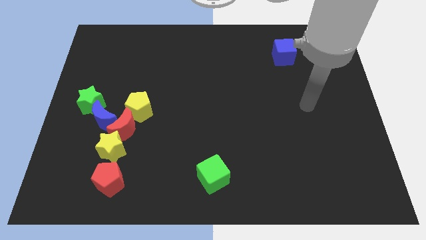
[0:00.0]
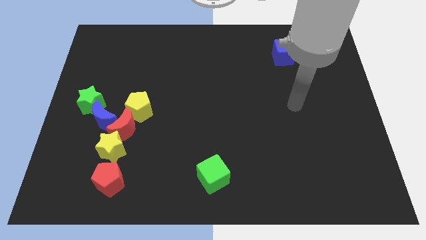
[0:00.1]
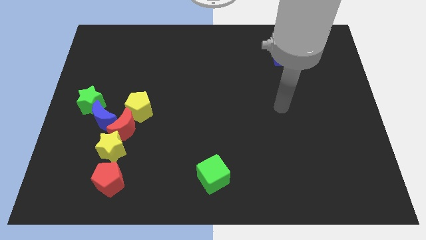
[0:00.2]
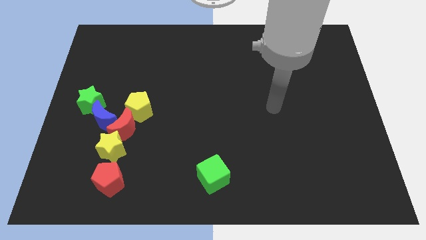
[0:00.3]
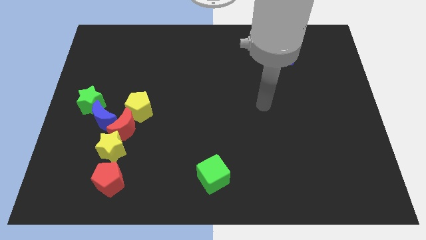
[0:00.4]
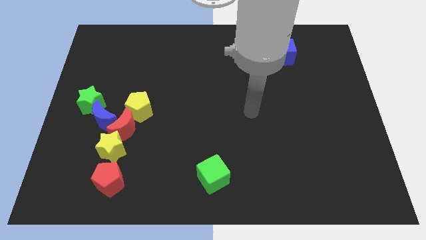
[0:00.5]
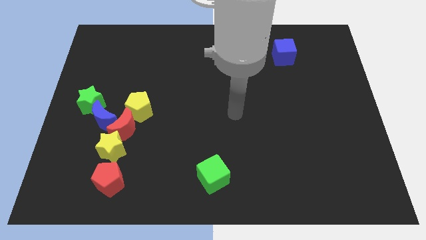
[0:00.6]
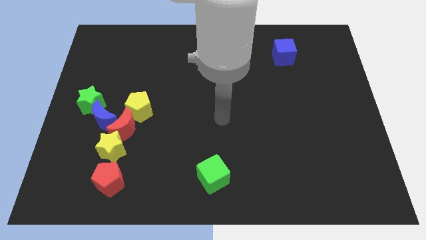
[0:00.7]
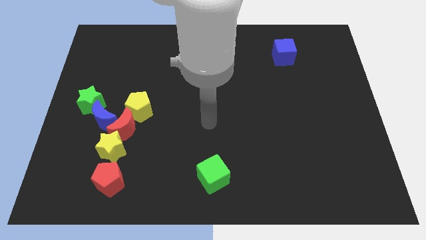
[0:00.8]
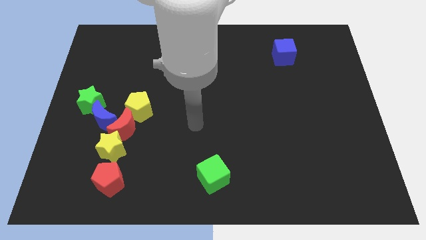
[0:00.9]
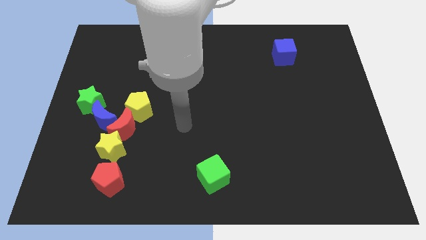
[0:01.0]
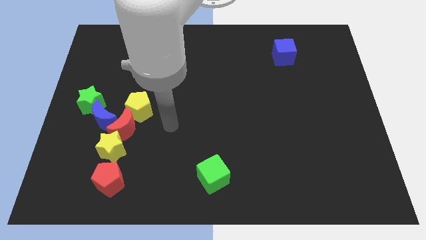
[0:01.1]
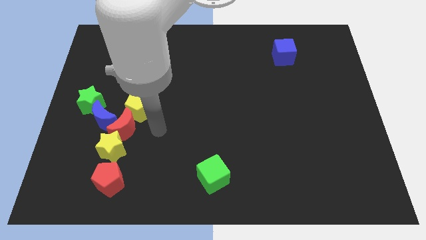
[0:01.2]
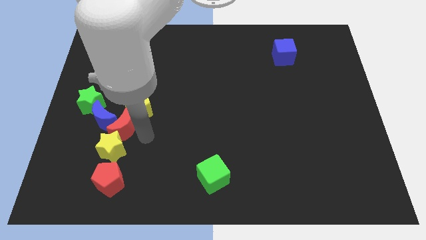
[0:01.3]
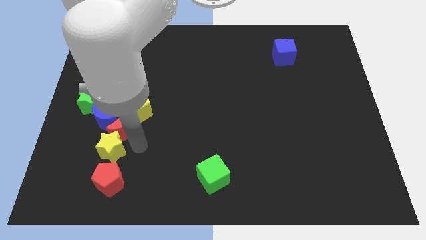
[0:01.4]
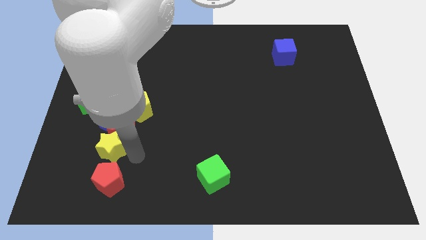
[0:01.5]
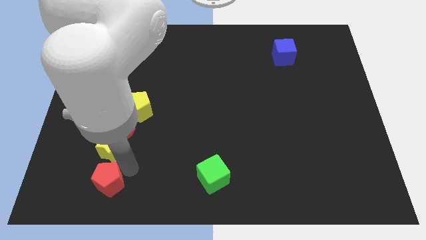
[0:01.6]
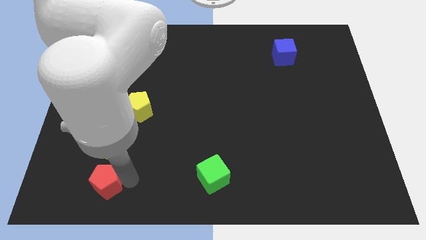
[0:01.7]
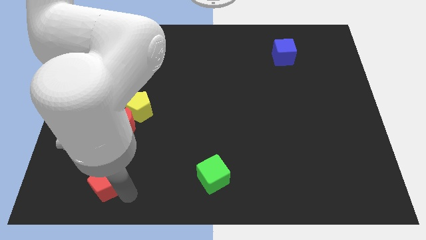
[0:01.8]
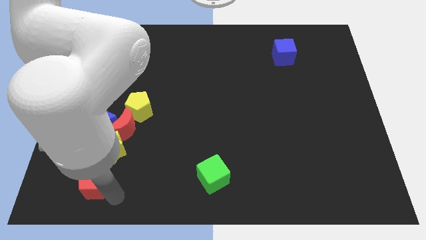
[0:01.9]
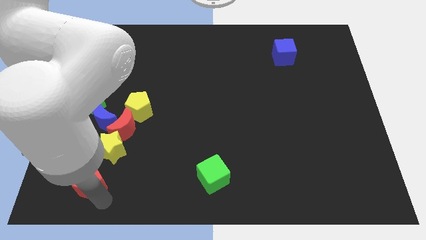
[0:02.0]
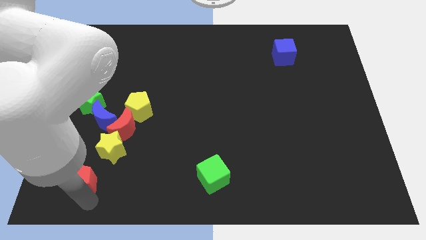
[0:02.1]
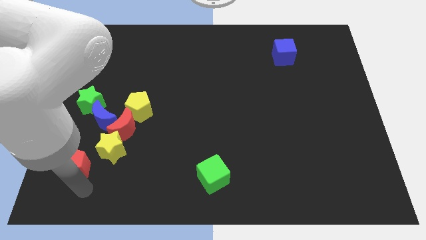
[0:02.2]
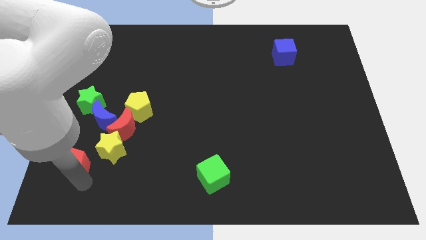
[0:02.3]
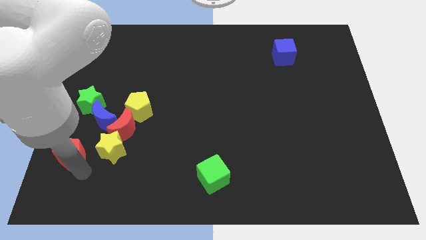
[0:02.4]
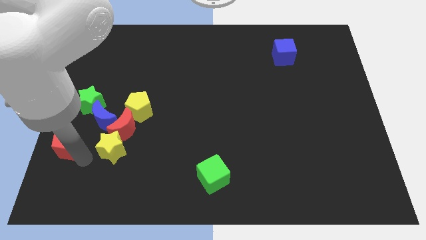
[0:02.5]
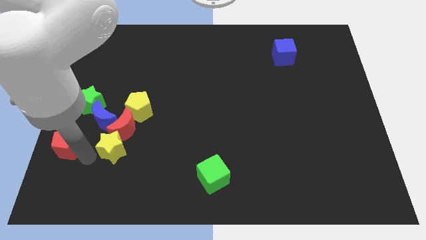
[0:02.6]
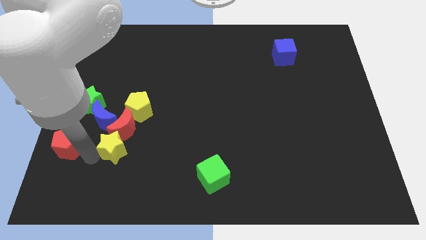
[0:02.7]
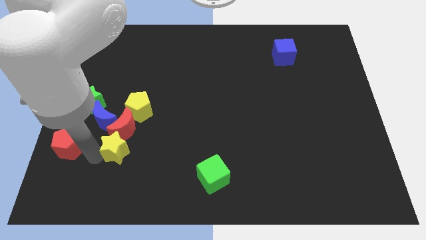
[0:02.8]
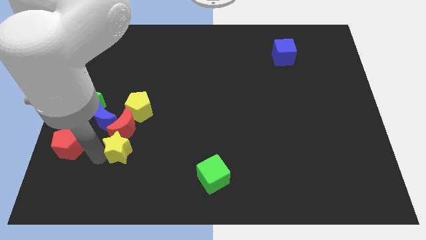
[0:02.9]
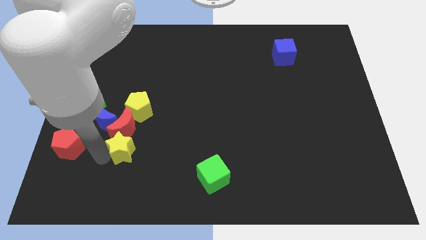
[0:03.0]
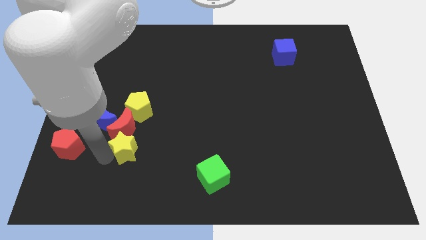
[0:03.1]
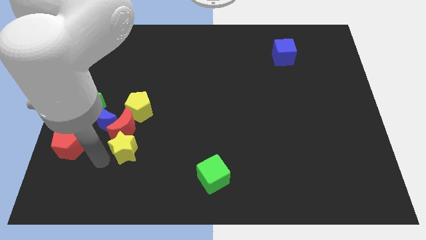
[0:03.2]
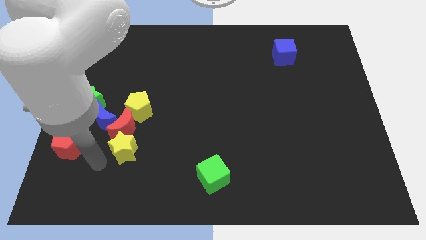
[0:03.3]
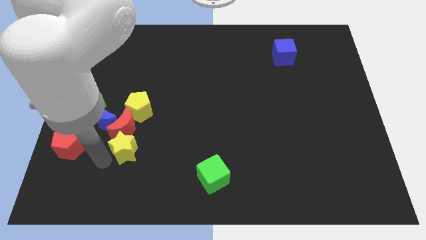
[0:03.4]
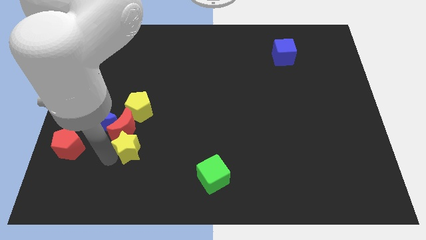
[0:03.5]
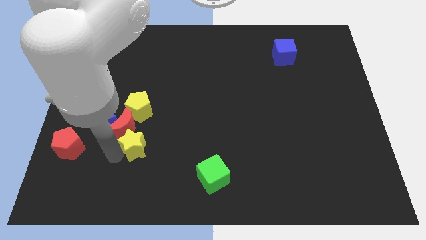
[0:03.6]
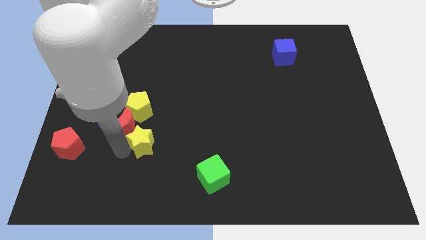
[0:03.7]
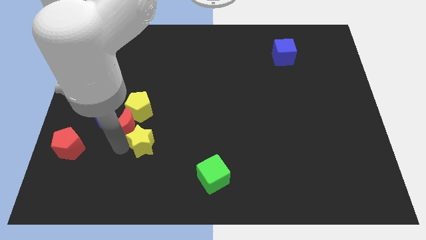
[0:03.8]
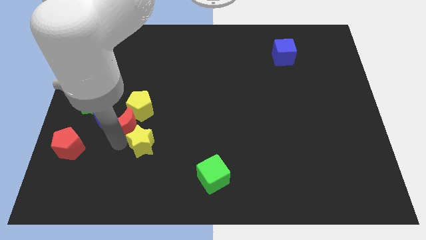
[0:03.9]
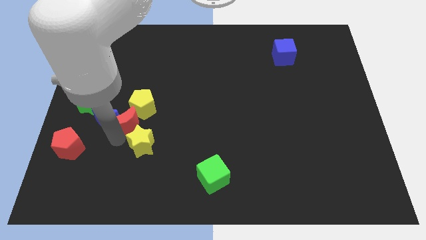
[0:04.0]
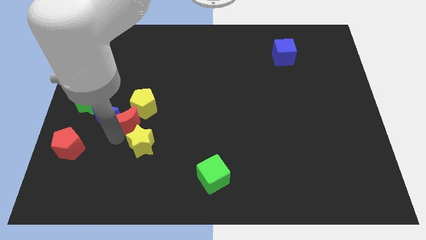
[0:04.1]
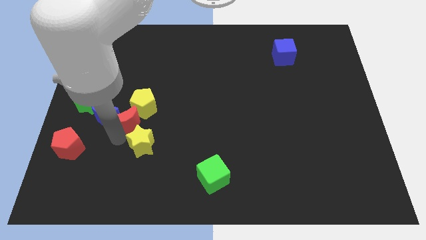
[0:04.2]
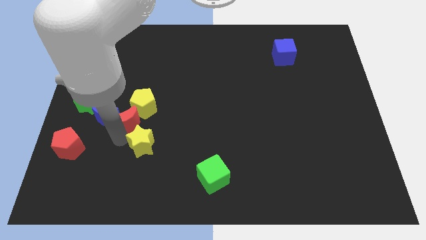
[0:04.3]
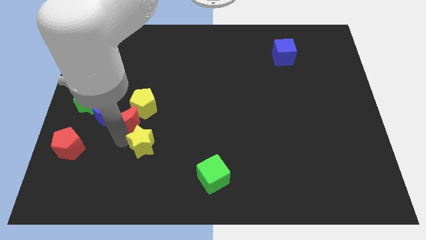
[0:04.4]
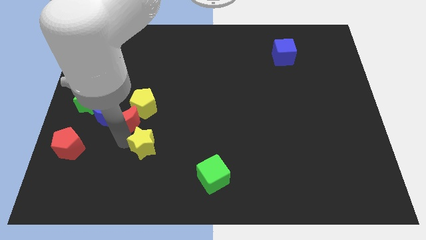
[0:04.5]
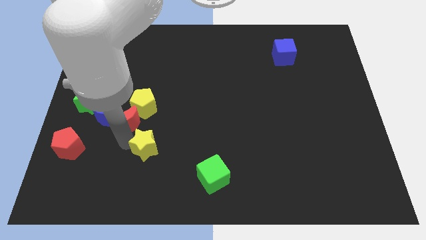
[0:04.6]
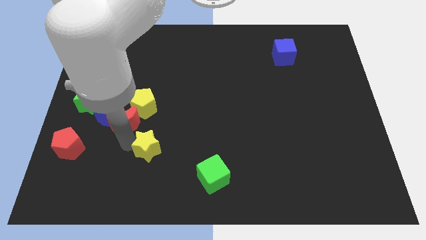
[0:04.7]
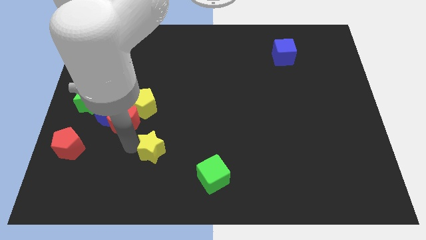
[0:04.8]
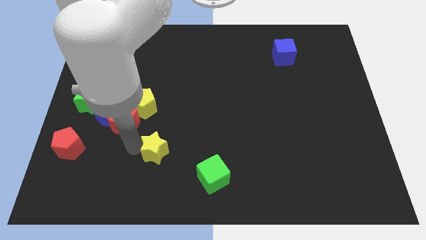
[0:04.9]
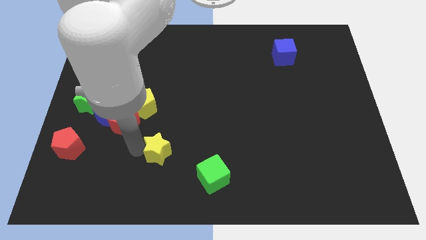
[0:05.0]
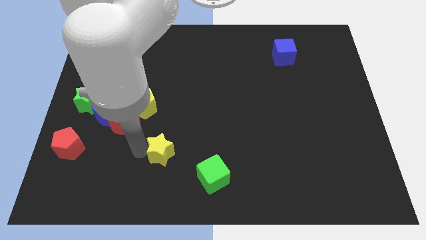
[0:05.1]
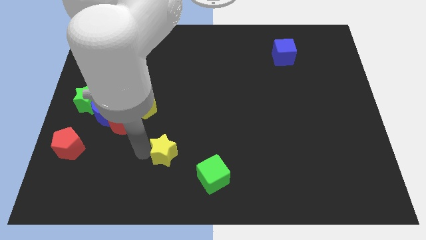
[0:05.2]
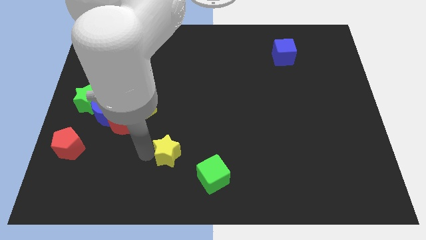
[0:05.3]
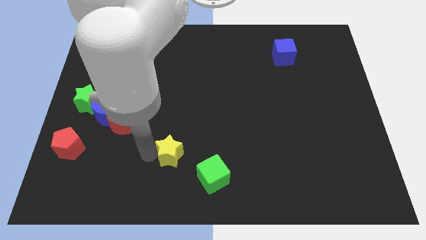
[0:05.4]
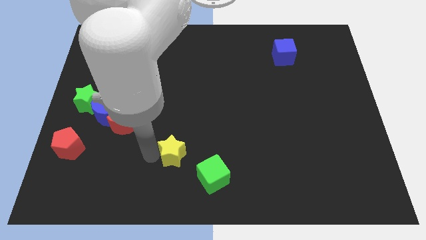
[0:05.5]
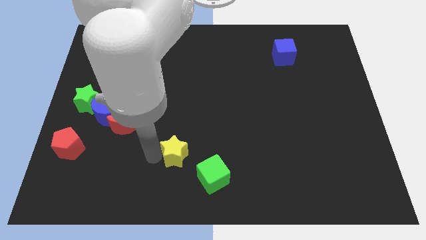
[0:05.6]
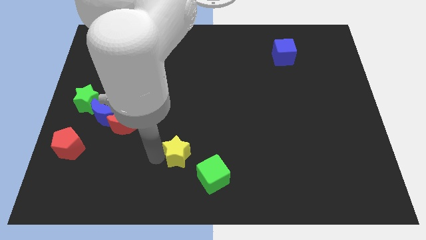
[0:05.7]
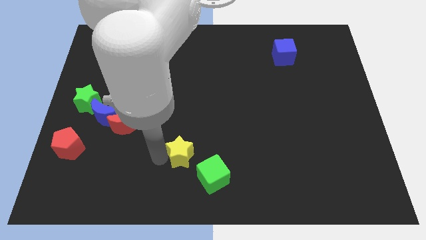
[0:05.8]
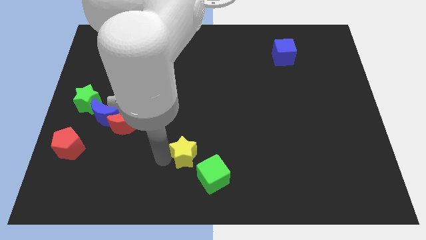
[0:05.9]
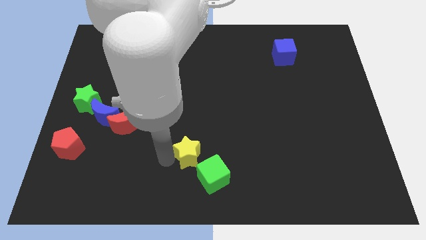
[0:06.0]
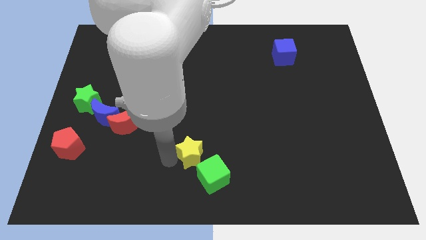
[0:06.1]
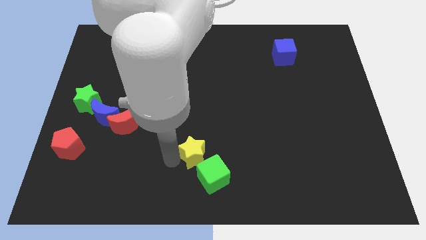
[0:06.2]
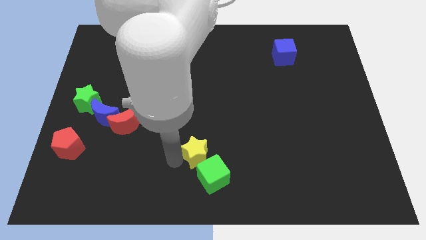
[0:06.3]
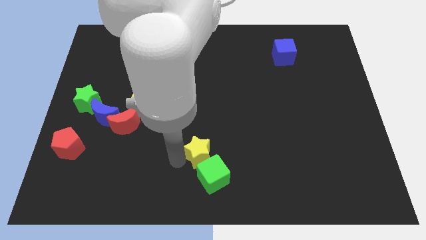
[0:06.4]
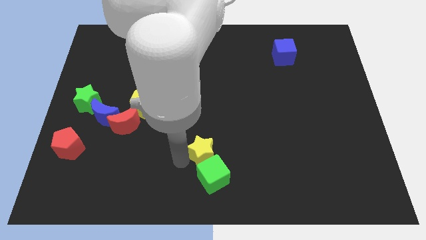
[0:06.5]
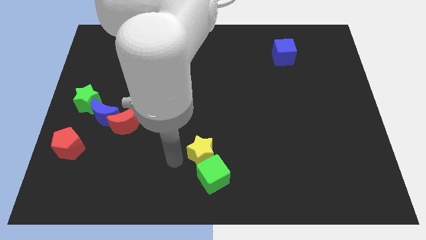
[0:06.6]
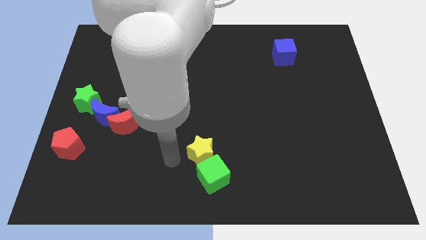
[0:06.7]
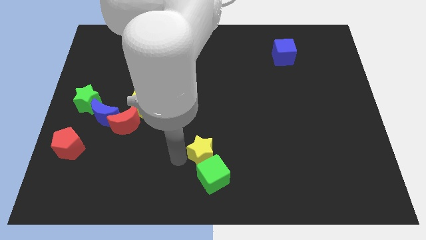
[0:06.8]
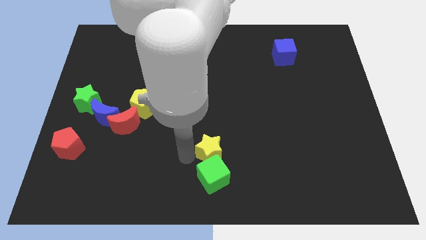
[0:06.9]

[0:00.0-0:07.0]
push the yellow star to the right

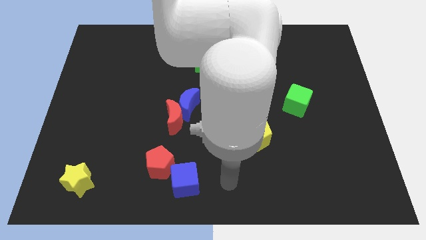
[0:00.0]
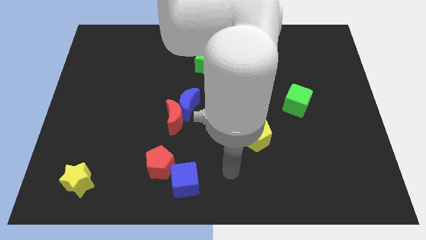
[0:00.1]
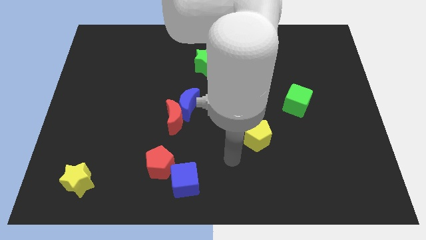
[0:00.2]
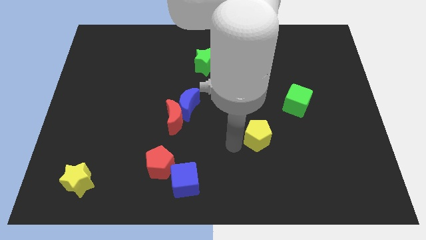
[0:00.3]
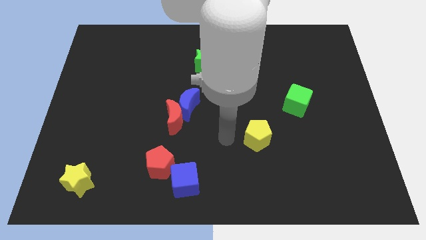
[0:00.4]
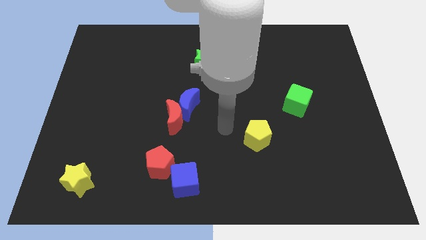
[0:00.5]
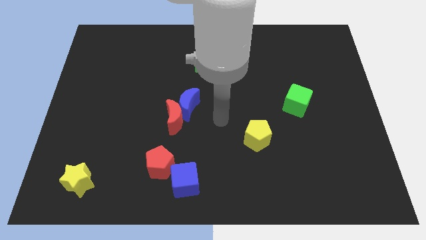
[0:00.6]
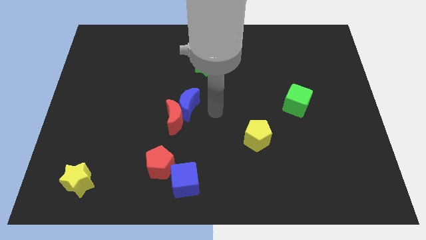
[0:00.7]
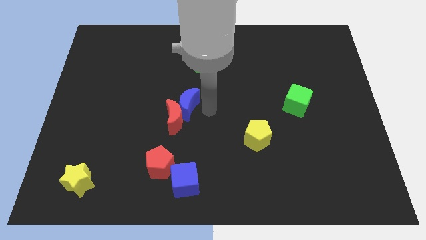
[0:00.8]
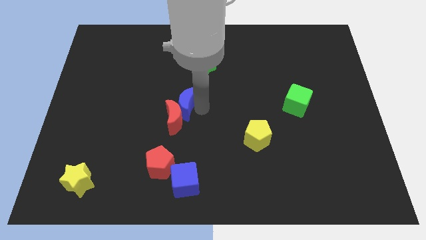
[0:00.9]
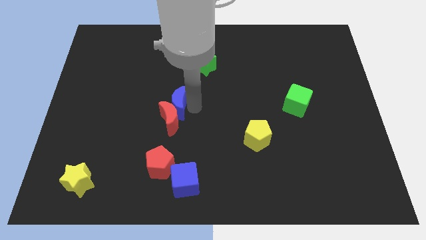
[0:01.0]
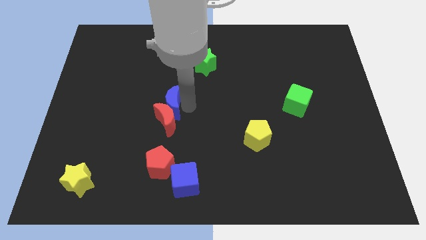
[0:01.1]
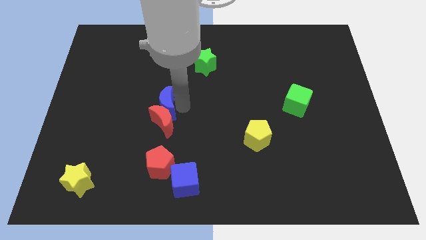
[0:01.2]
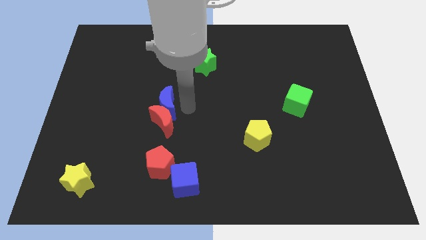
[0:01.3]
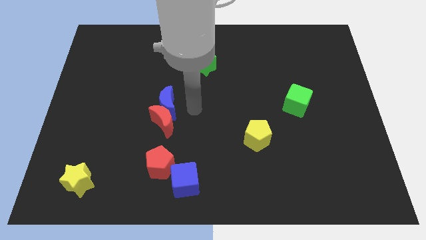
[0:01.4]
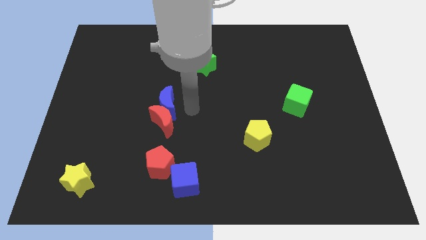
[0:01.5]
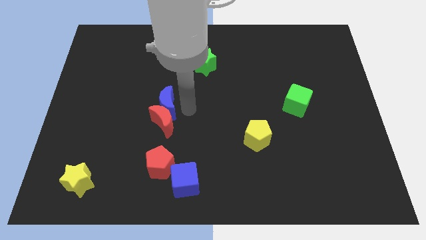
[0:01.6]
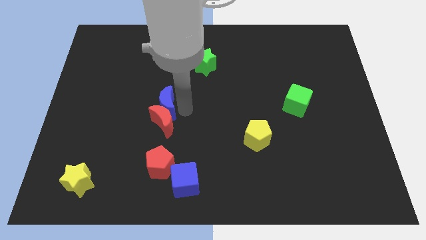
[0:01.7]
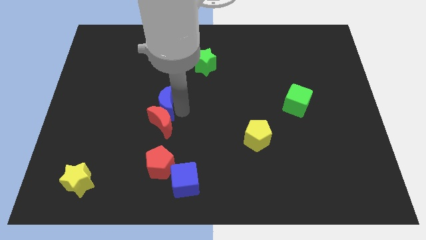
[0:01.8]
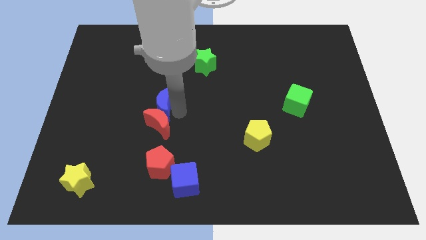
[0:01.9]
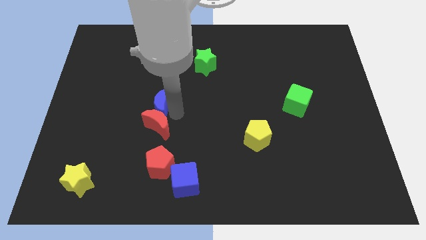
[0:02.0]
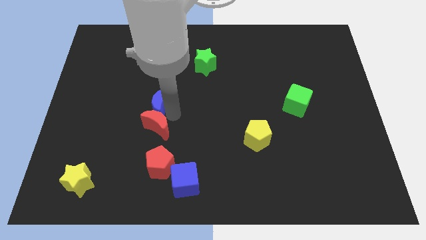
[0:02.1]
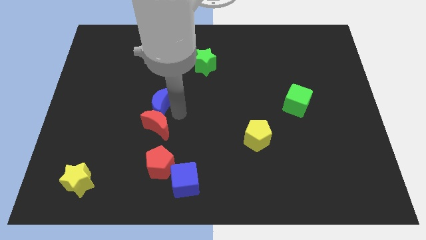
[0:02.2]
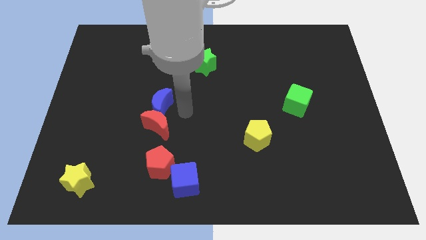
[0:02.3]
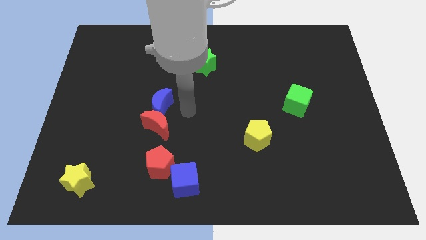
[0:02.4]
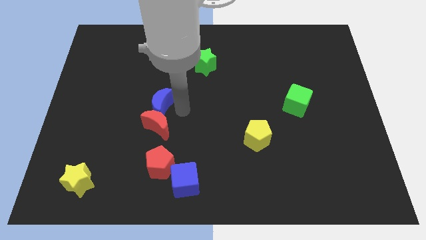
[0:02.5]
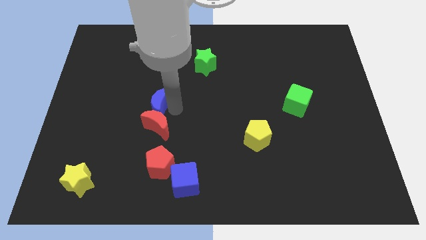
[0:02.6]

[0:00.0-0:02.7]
push the blue moon left a bit
